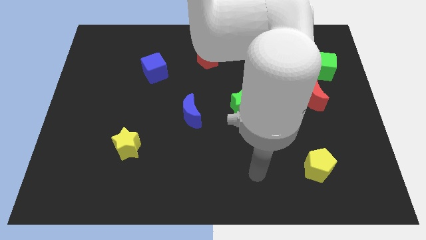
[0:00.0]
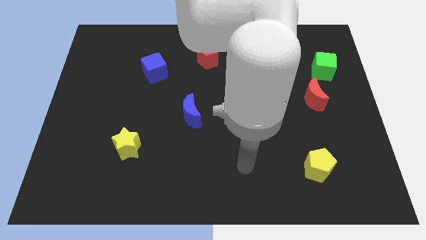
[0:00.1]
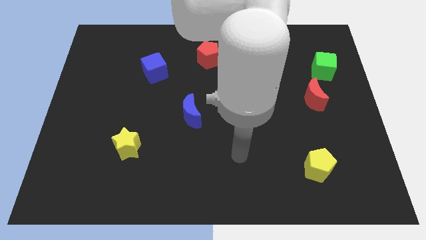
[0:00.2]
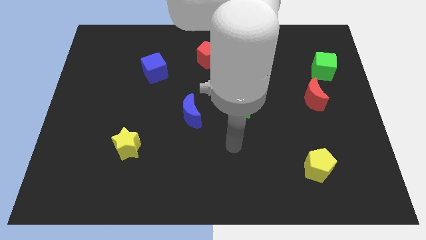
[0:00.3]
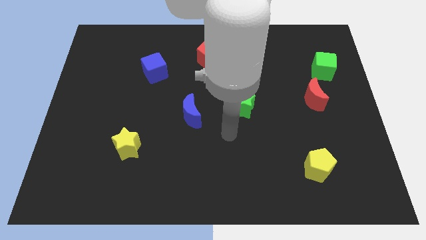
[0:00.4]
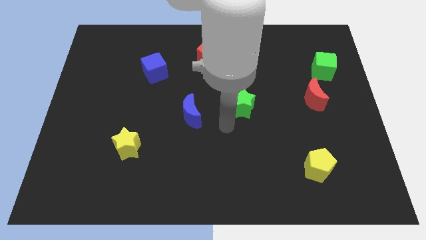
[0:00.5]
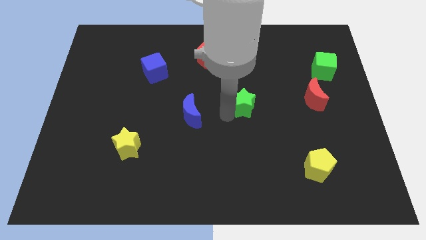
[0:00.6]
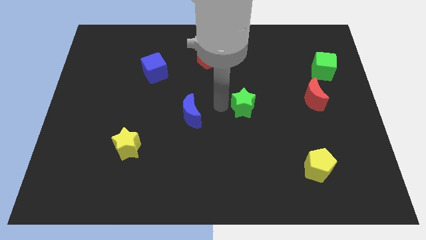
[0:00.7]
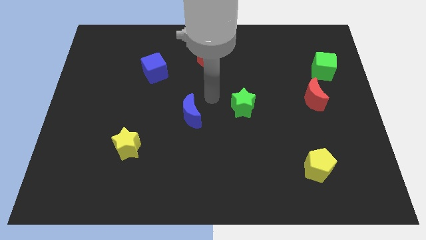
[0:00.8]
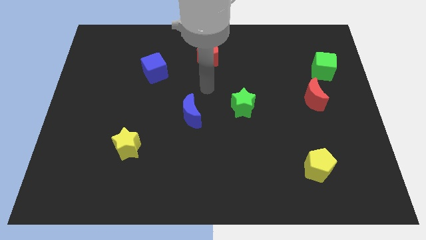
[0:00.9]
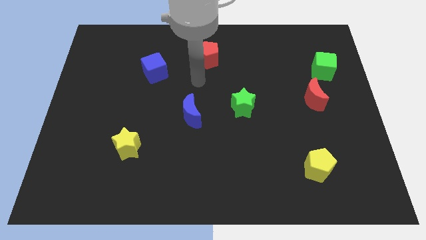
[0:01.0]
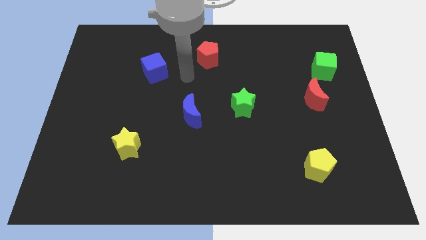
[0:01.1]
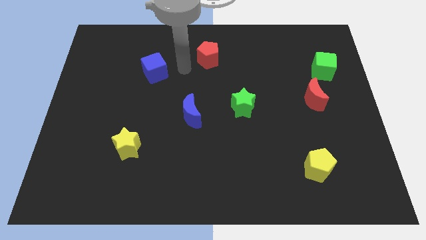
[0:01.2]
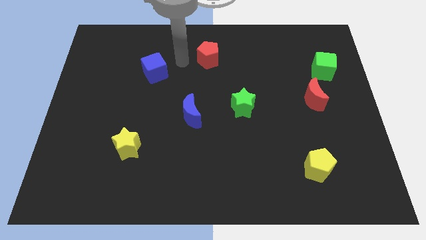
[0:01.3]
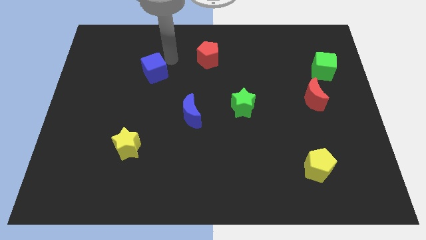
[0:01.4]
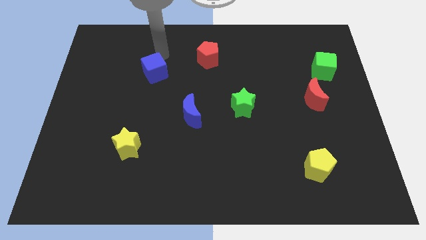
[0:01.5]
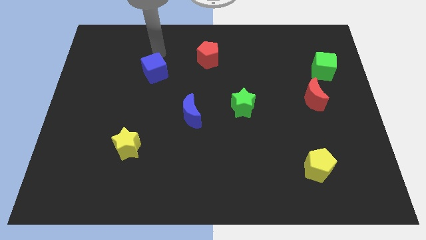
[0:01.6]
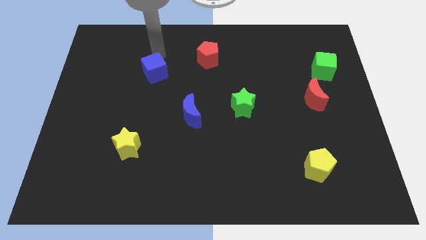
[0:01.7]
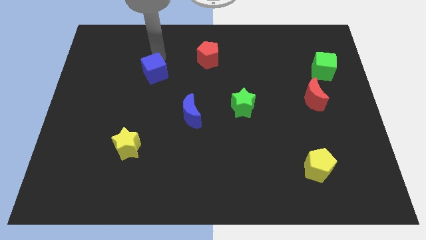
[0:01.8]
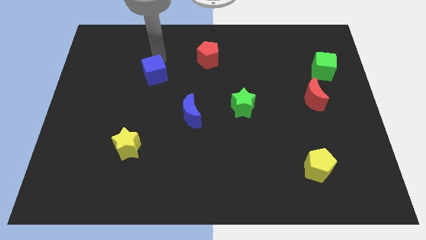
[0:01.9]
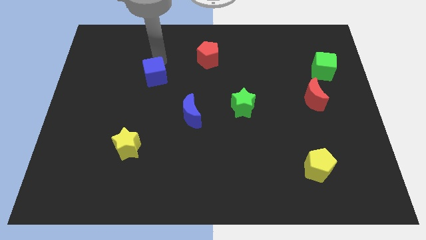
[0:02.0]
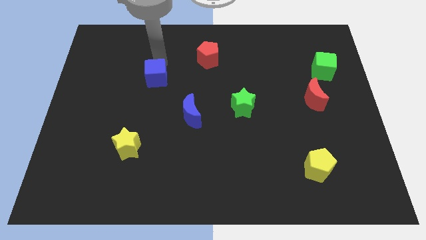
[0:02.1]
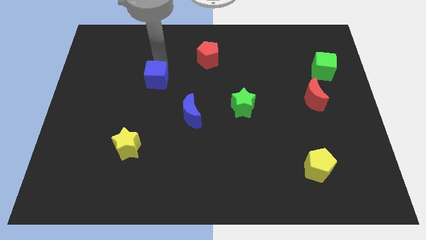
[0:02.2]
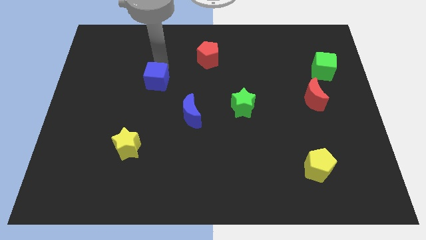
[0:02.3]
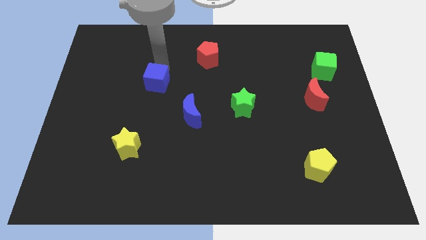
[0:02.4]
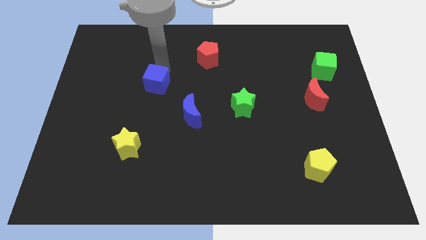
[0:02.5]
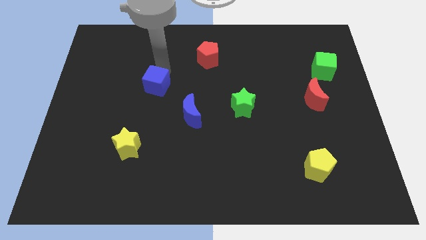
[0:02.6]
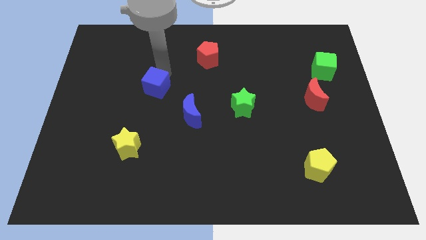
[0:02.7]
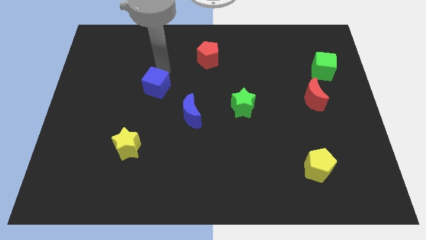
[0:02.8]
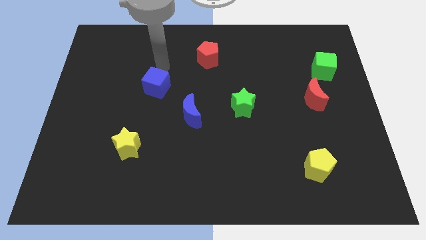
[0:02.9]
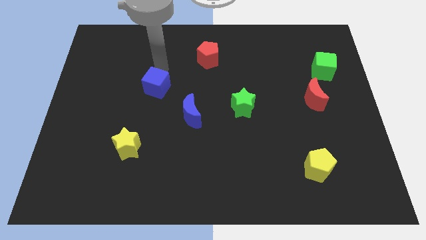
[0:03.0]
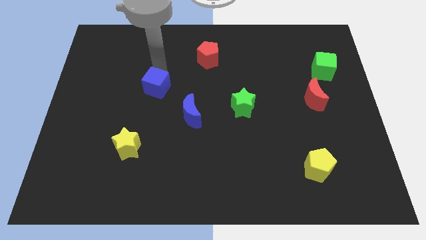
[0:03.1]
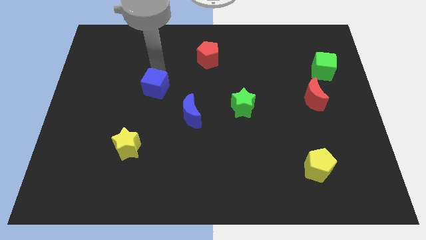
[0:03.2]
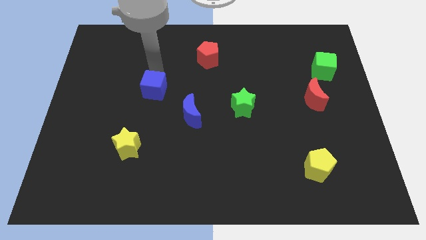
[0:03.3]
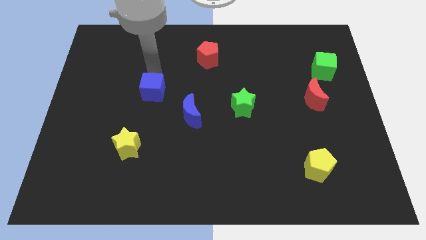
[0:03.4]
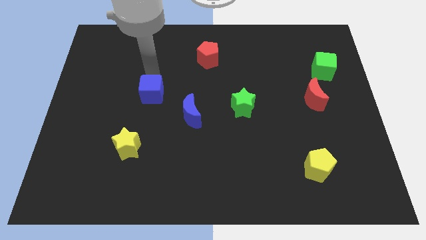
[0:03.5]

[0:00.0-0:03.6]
slide the blue cube down a little bit

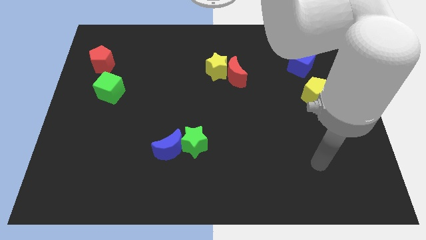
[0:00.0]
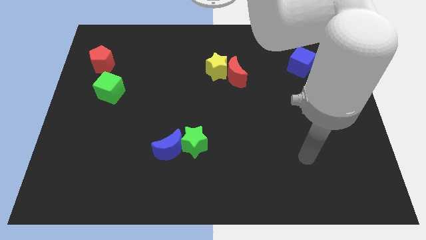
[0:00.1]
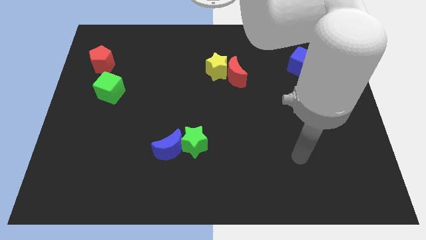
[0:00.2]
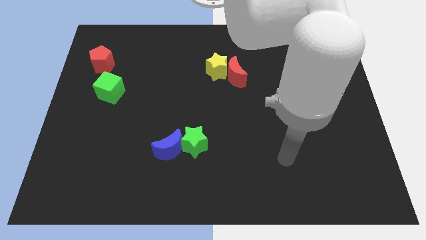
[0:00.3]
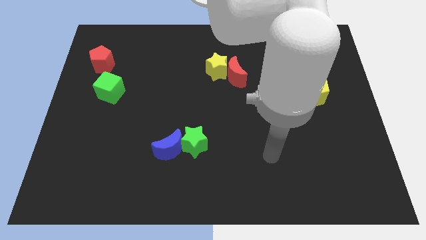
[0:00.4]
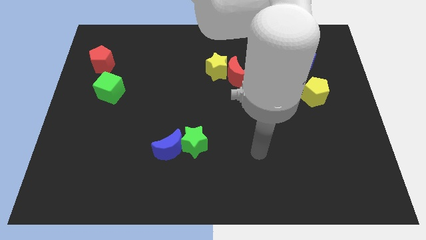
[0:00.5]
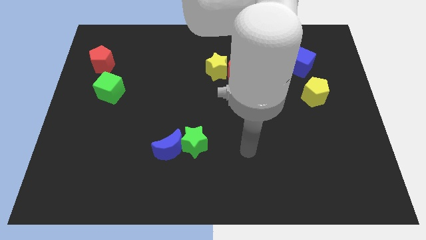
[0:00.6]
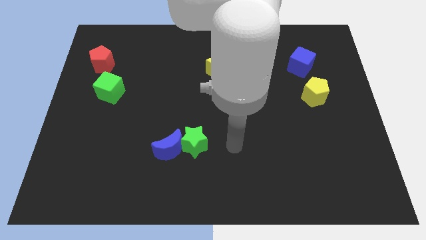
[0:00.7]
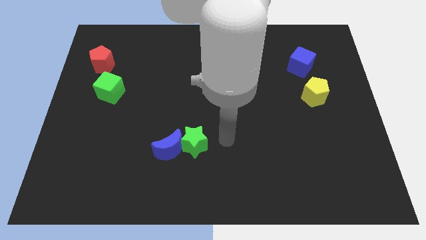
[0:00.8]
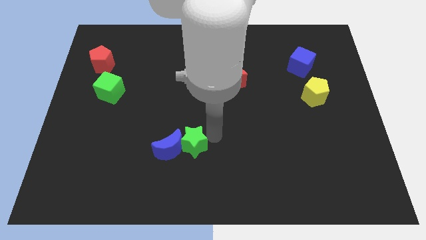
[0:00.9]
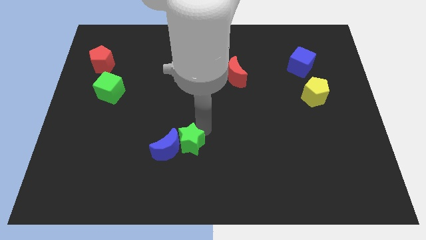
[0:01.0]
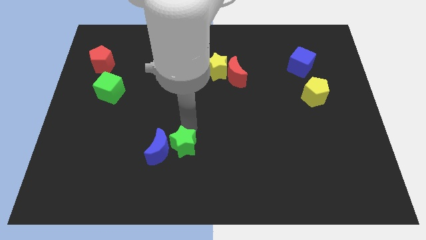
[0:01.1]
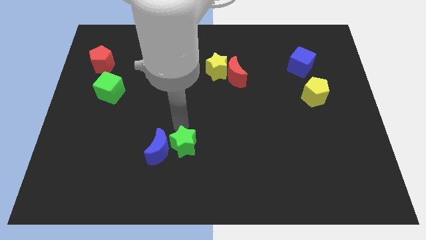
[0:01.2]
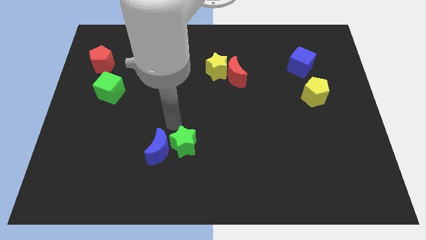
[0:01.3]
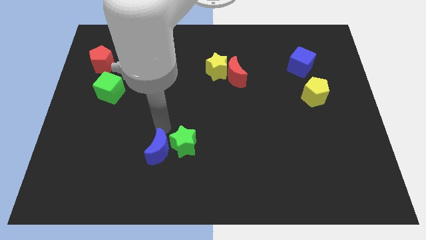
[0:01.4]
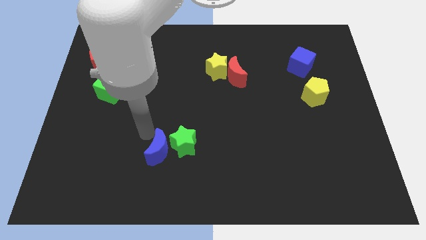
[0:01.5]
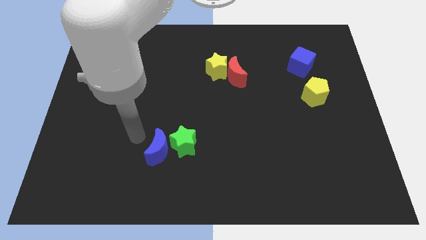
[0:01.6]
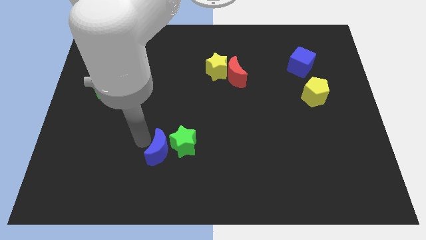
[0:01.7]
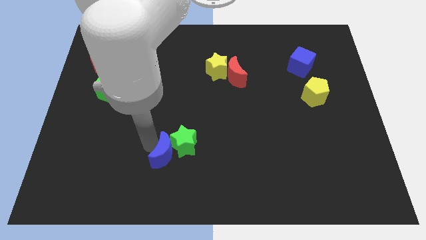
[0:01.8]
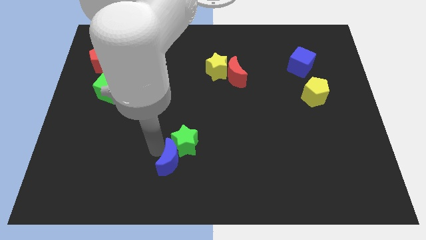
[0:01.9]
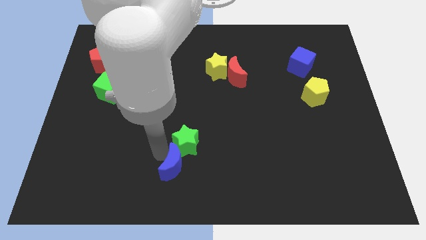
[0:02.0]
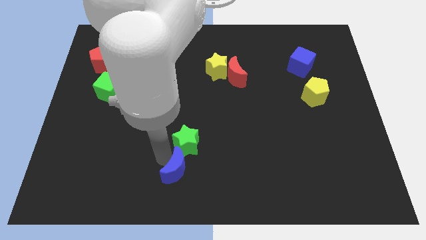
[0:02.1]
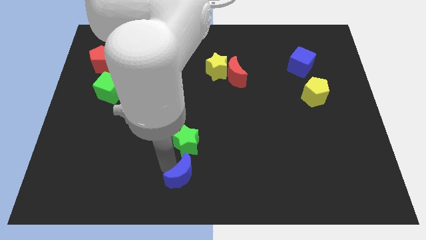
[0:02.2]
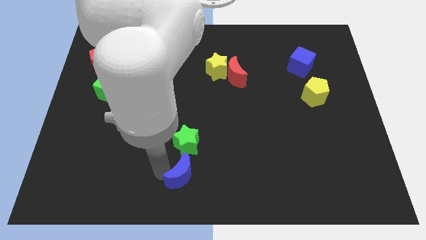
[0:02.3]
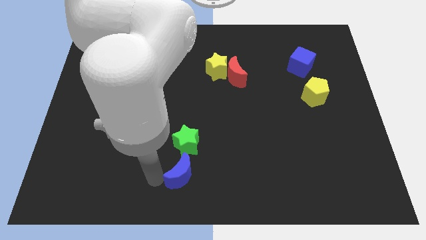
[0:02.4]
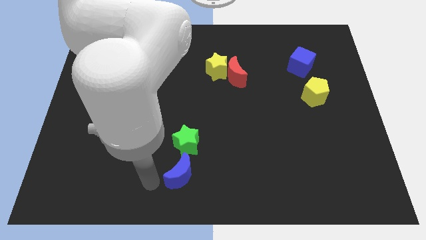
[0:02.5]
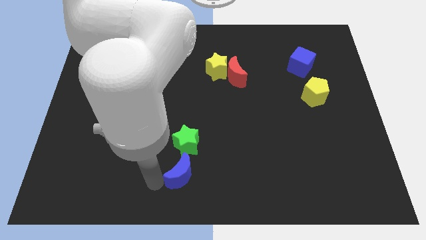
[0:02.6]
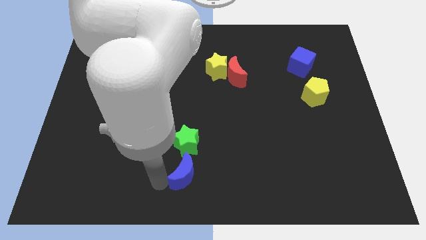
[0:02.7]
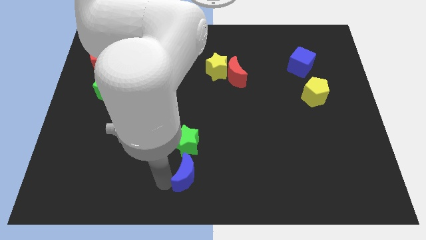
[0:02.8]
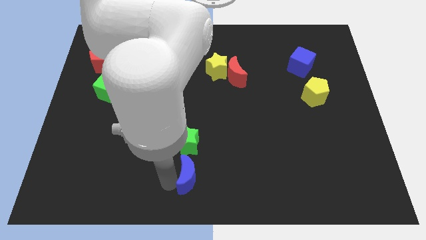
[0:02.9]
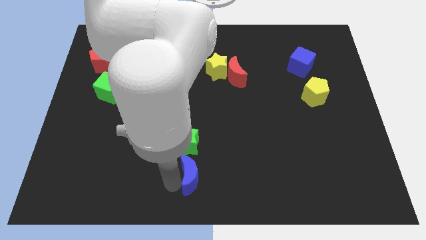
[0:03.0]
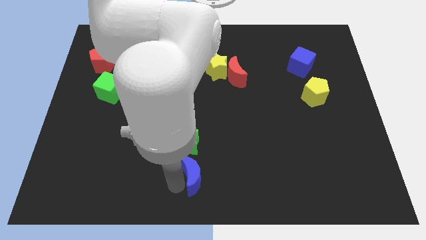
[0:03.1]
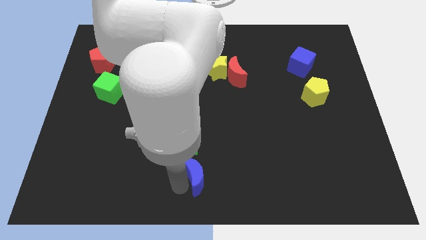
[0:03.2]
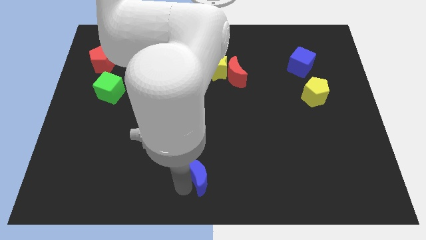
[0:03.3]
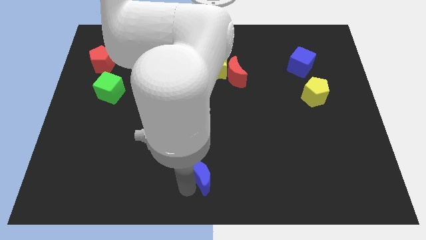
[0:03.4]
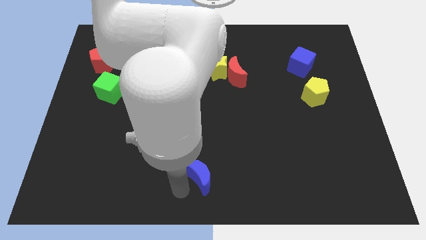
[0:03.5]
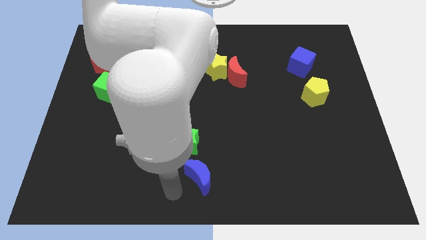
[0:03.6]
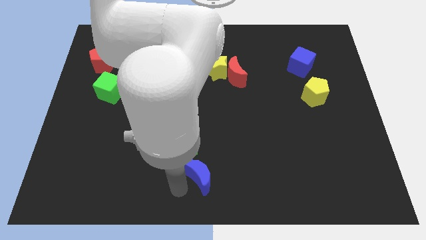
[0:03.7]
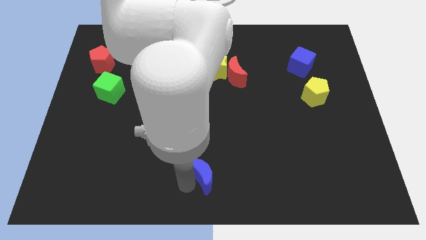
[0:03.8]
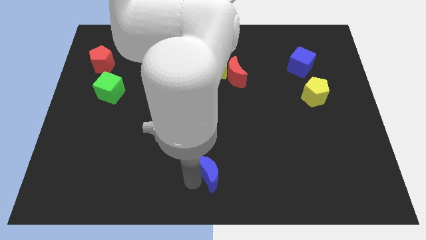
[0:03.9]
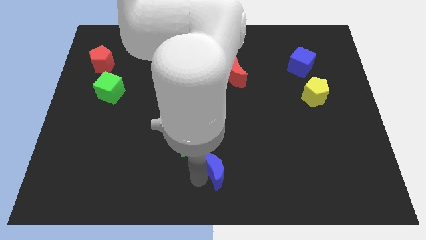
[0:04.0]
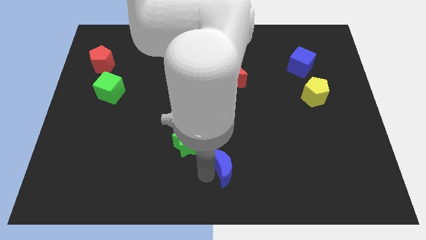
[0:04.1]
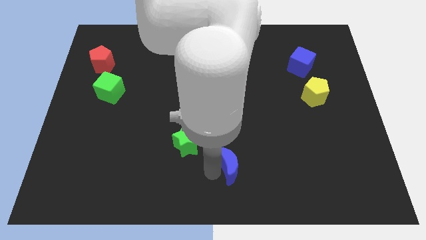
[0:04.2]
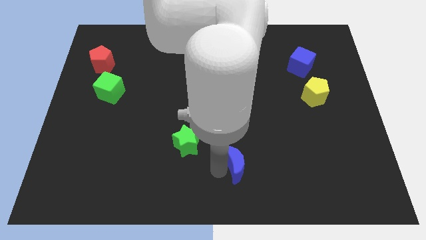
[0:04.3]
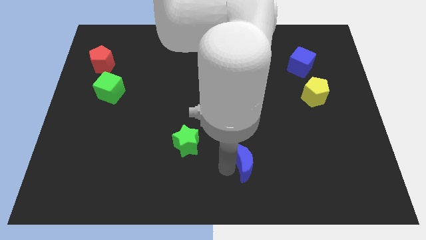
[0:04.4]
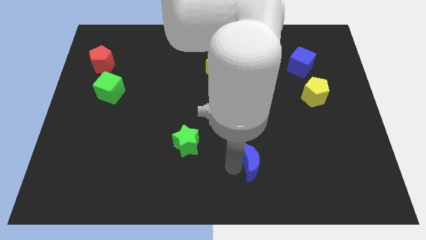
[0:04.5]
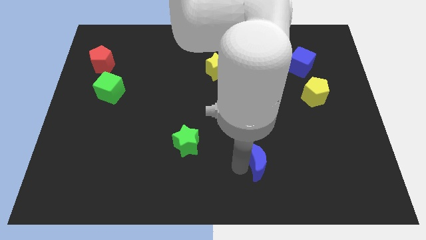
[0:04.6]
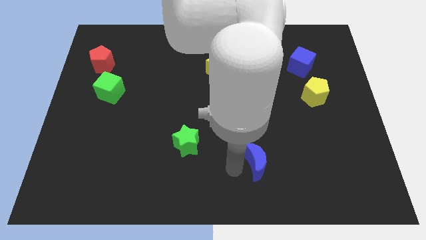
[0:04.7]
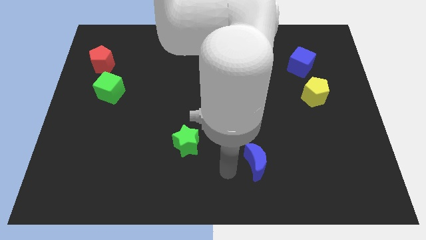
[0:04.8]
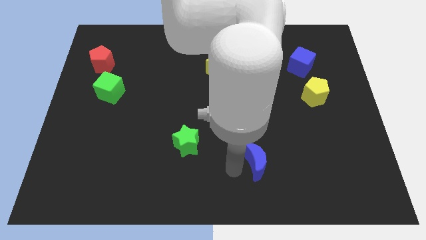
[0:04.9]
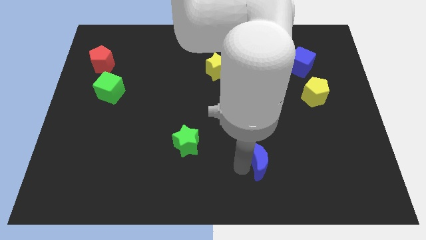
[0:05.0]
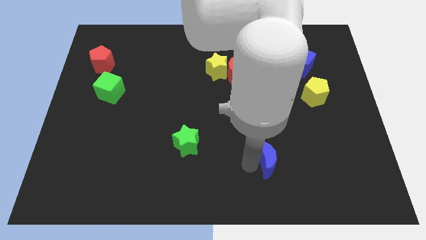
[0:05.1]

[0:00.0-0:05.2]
push the blue moon to the right
